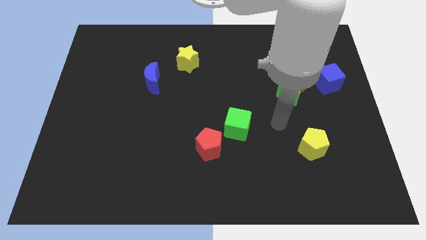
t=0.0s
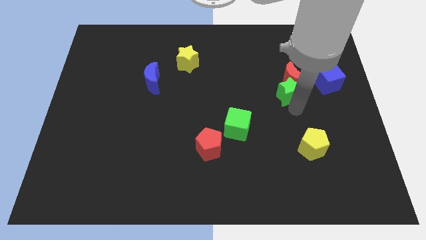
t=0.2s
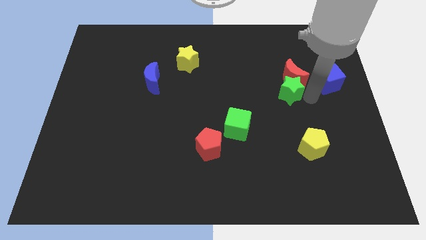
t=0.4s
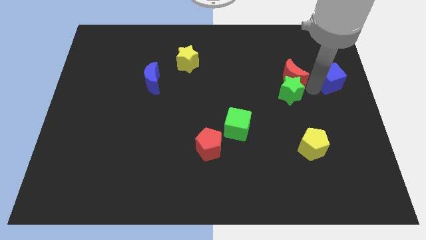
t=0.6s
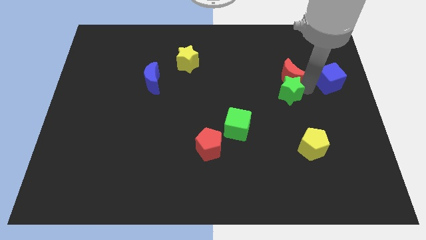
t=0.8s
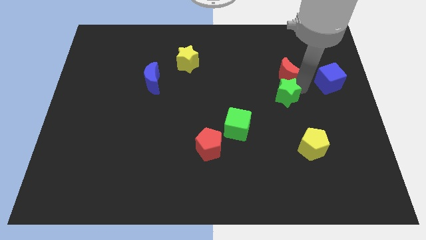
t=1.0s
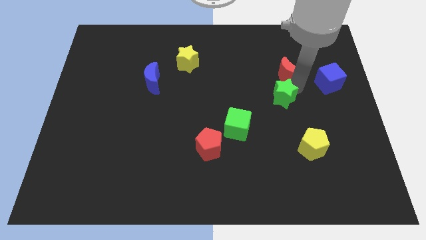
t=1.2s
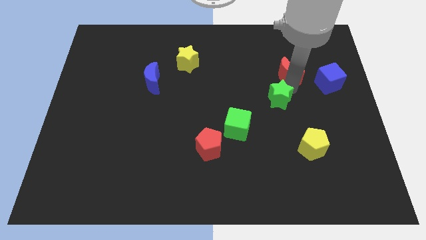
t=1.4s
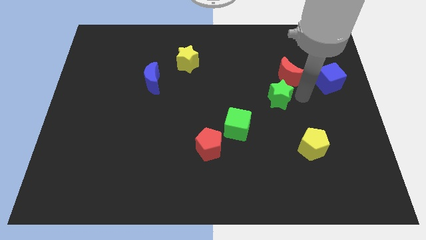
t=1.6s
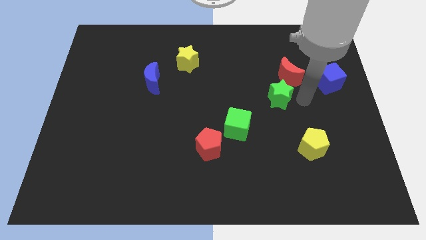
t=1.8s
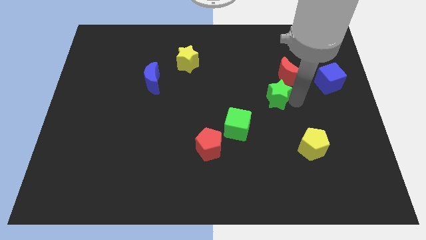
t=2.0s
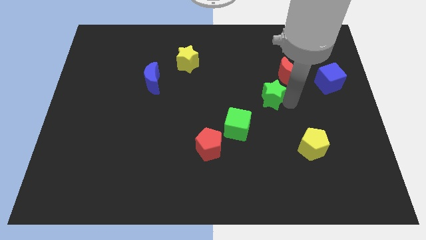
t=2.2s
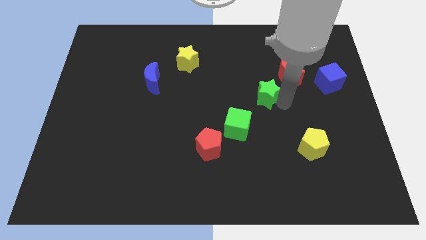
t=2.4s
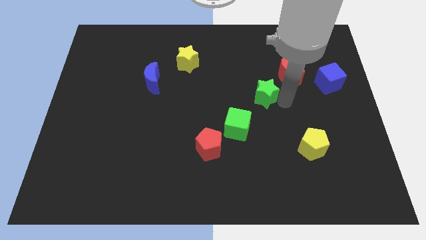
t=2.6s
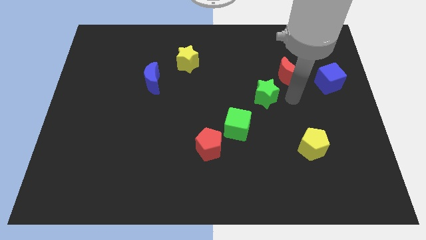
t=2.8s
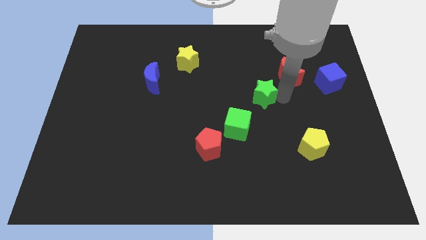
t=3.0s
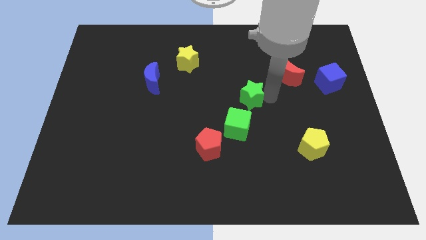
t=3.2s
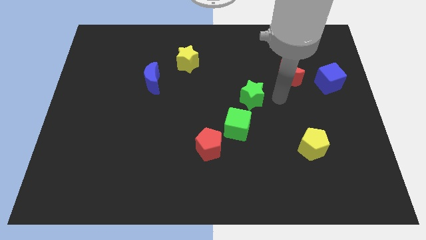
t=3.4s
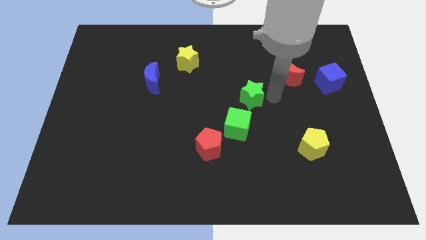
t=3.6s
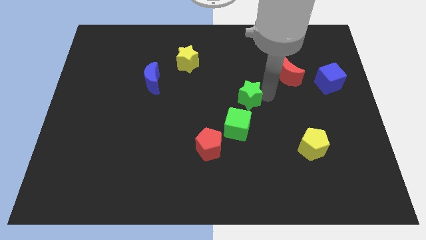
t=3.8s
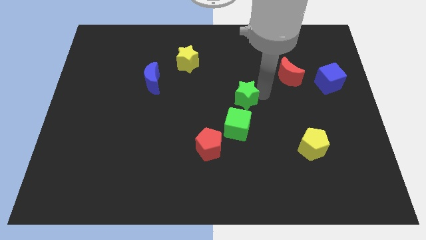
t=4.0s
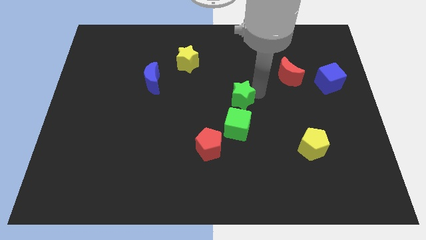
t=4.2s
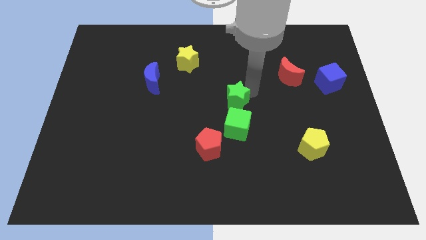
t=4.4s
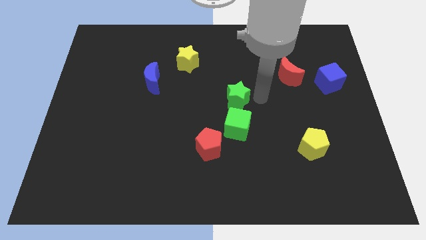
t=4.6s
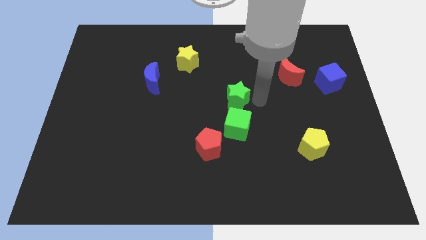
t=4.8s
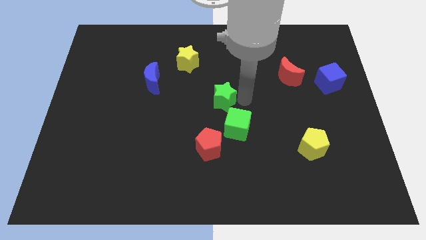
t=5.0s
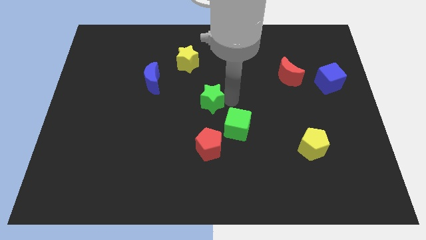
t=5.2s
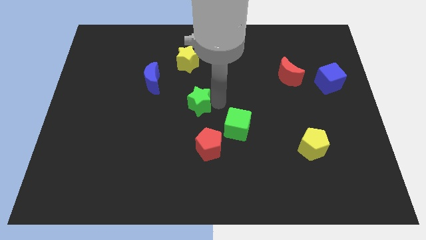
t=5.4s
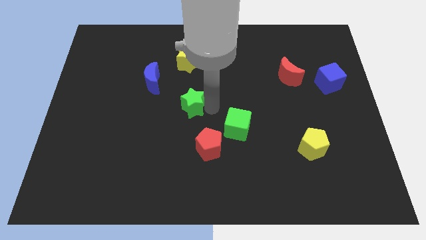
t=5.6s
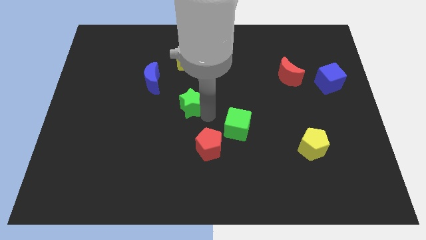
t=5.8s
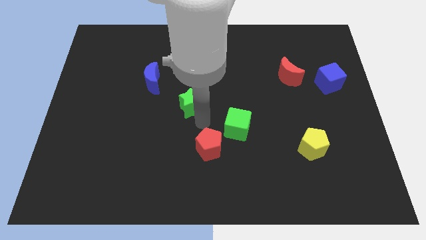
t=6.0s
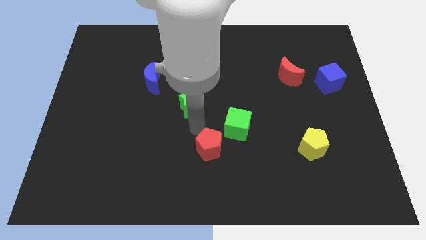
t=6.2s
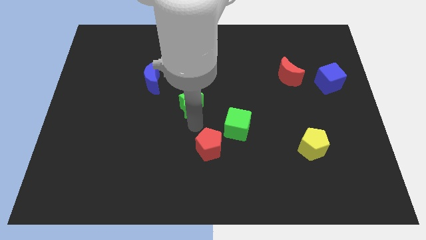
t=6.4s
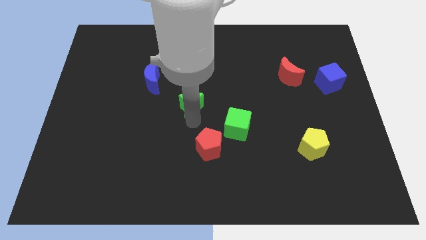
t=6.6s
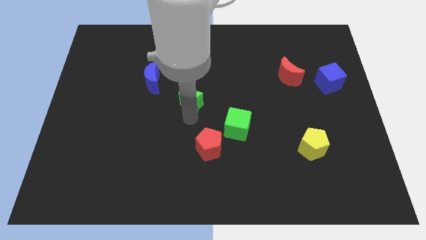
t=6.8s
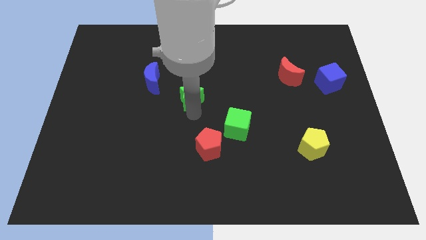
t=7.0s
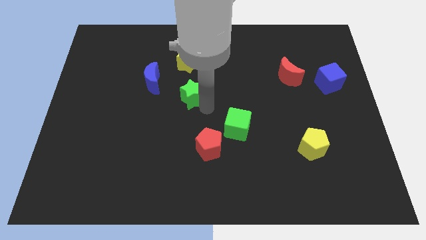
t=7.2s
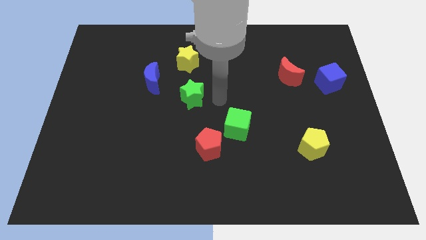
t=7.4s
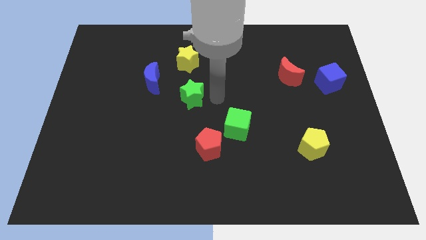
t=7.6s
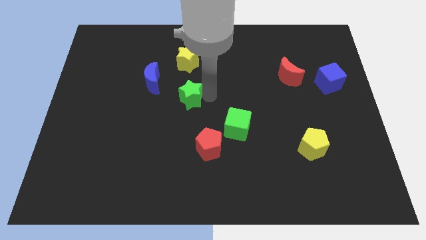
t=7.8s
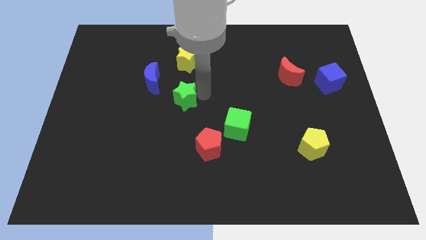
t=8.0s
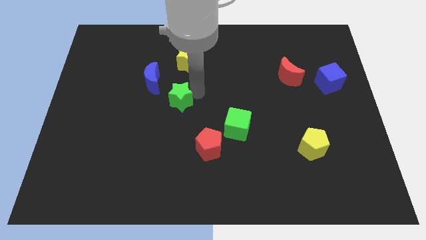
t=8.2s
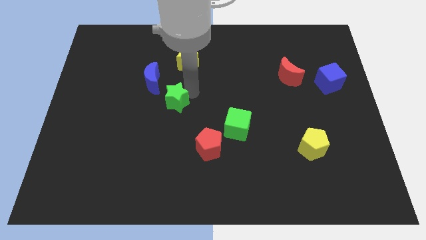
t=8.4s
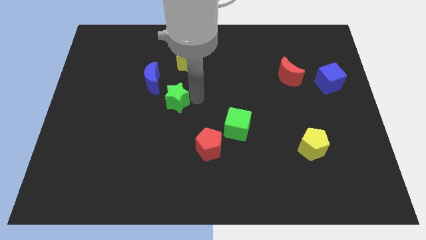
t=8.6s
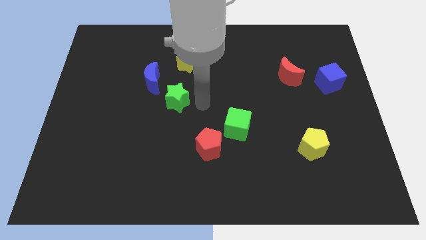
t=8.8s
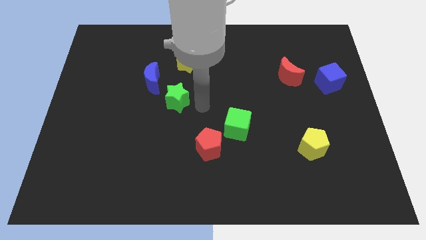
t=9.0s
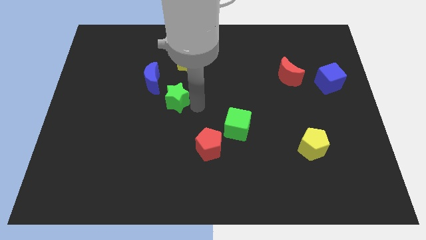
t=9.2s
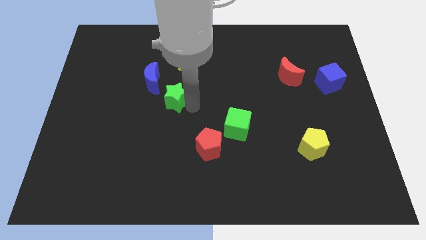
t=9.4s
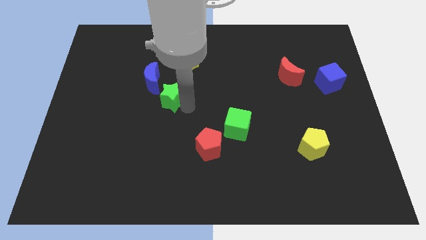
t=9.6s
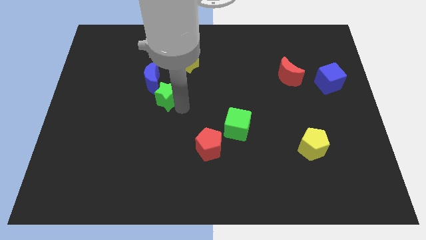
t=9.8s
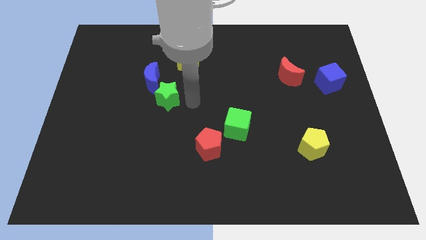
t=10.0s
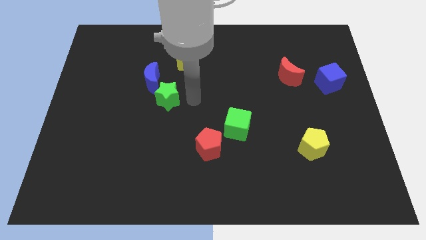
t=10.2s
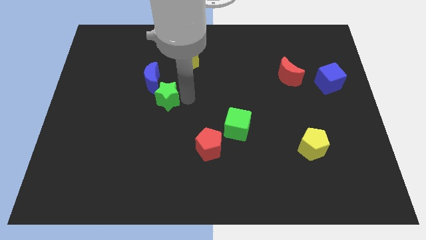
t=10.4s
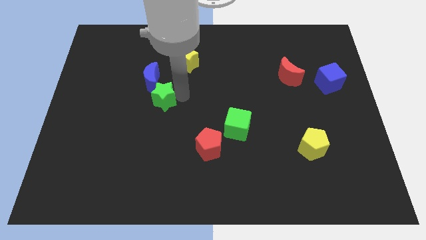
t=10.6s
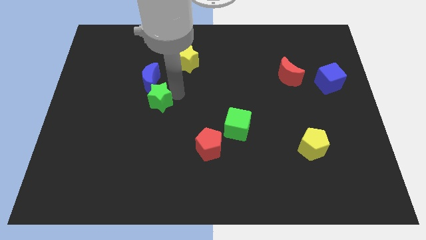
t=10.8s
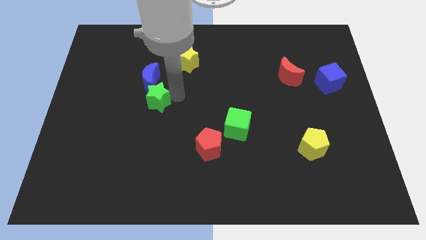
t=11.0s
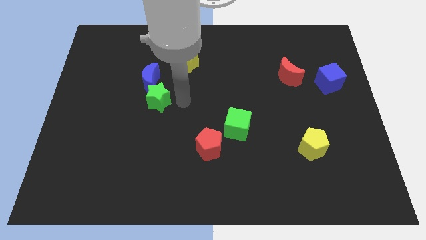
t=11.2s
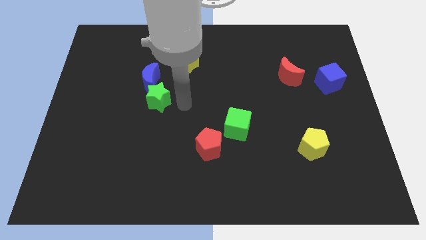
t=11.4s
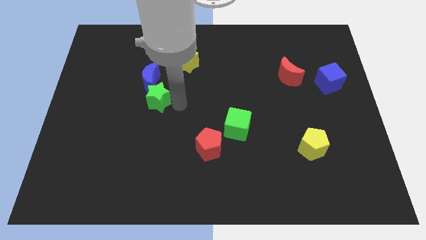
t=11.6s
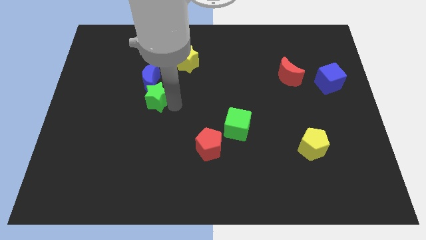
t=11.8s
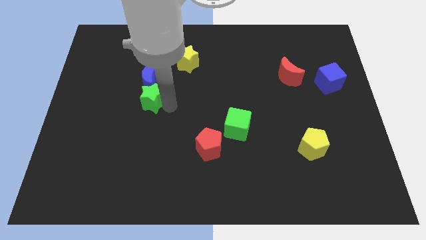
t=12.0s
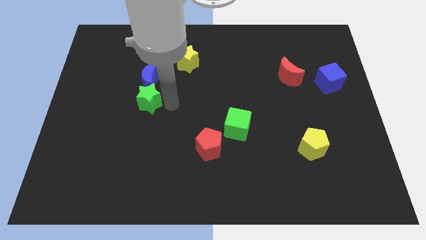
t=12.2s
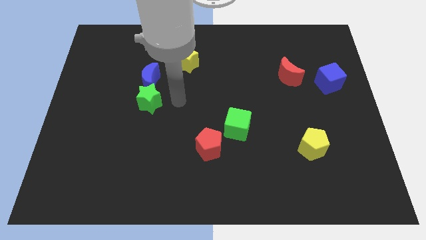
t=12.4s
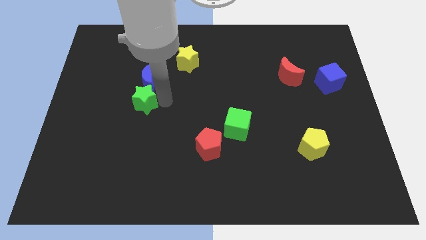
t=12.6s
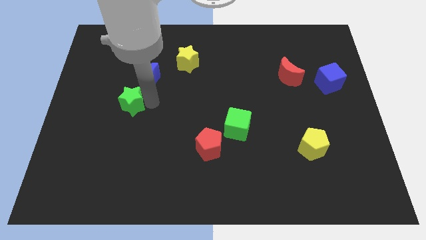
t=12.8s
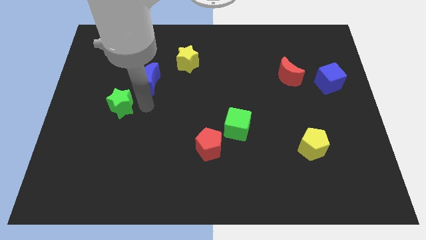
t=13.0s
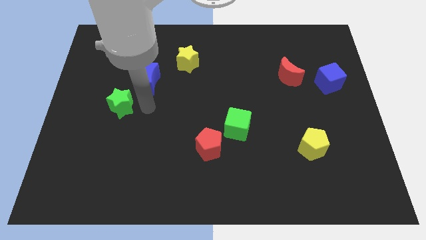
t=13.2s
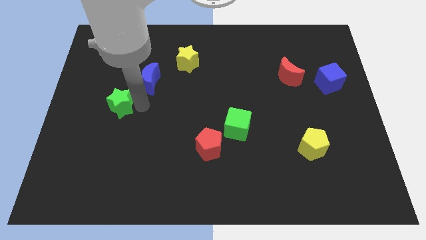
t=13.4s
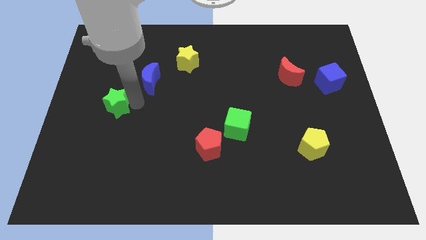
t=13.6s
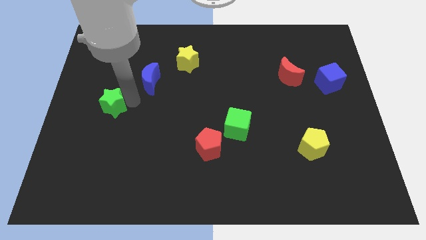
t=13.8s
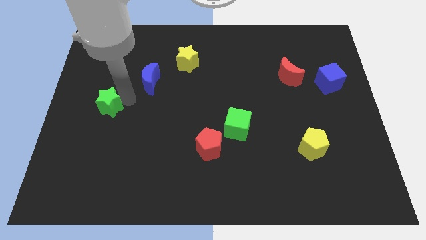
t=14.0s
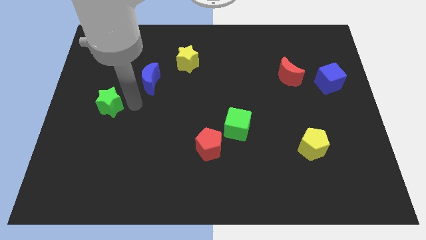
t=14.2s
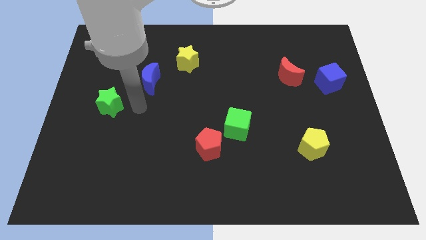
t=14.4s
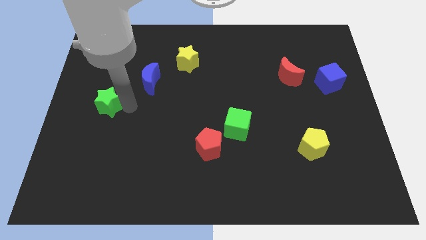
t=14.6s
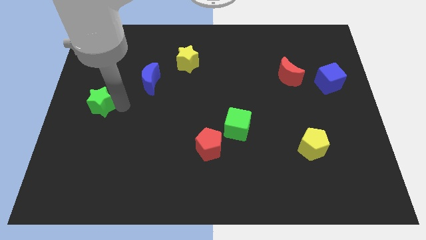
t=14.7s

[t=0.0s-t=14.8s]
slide the green star to the left side of the board
